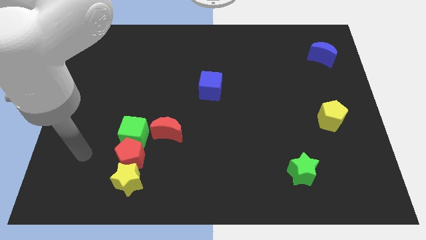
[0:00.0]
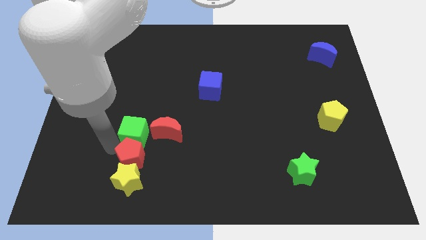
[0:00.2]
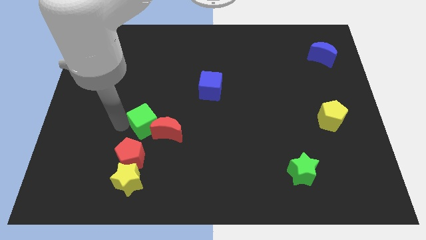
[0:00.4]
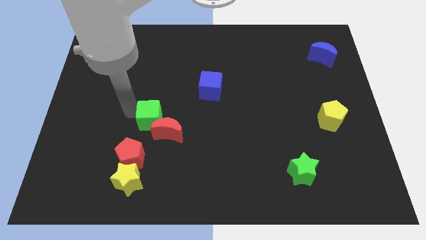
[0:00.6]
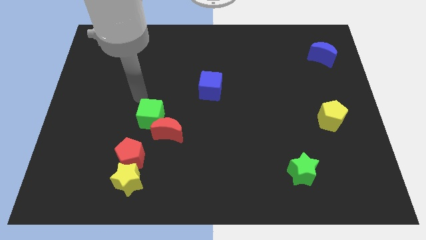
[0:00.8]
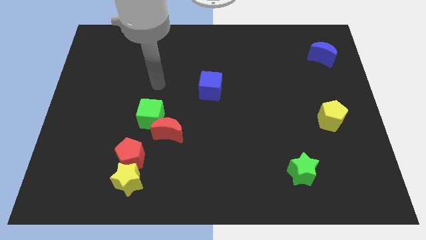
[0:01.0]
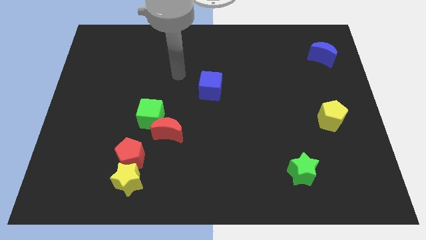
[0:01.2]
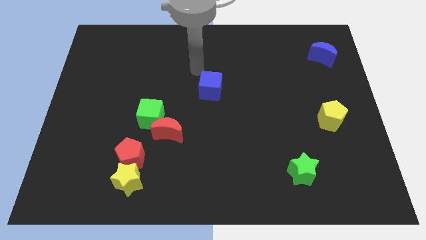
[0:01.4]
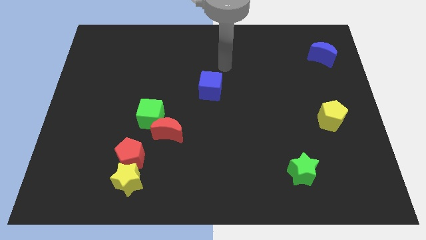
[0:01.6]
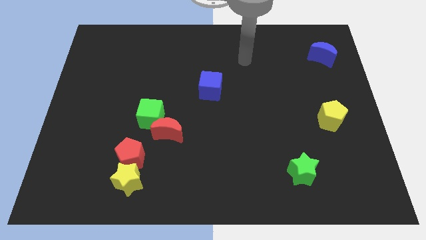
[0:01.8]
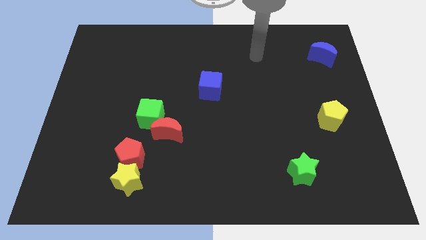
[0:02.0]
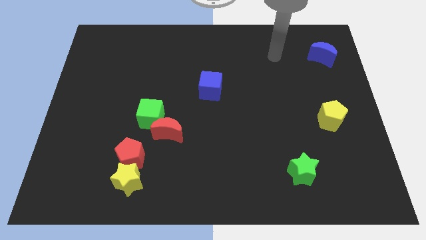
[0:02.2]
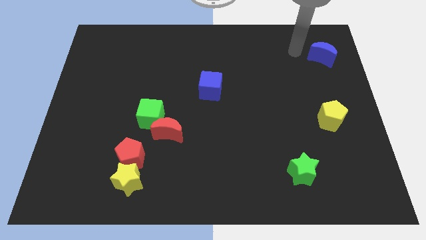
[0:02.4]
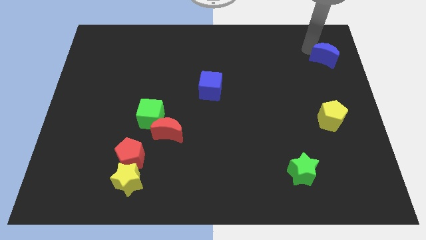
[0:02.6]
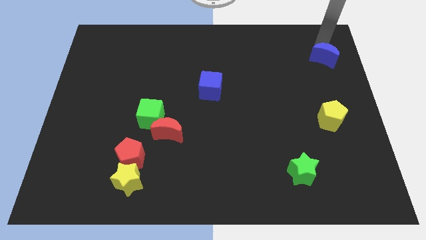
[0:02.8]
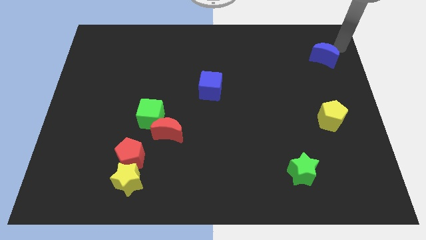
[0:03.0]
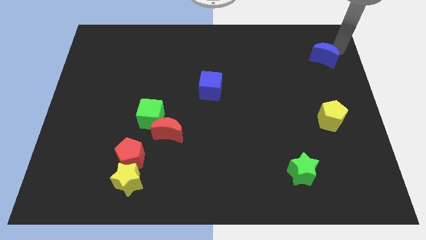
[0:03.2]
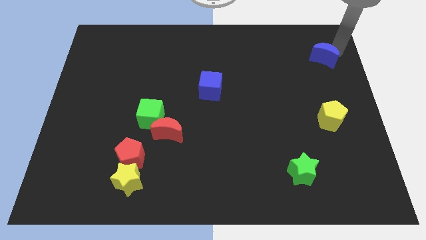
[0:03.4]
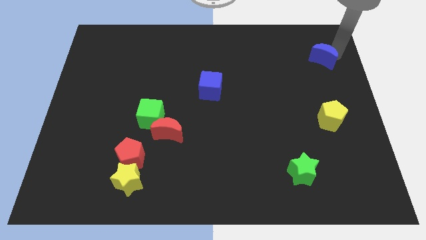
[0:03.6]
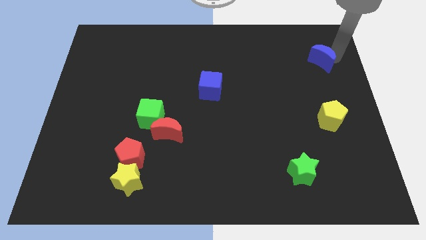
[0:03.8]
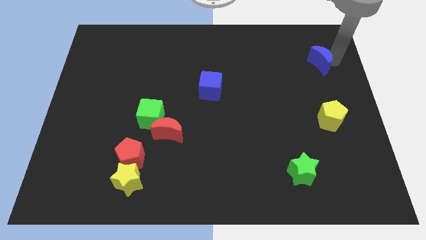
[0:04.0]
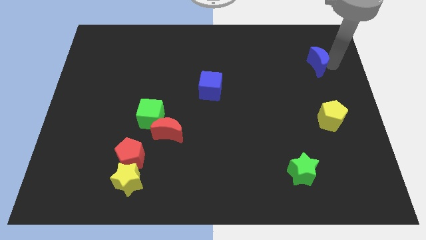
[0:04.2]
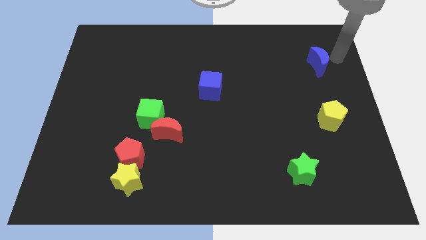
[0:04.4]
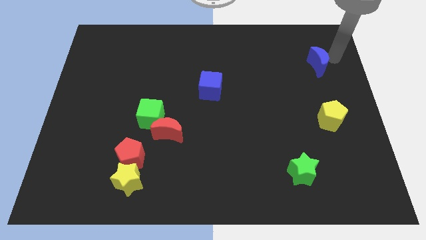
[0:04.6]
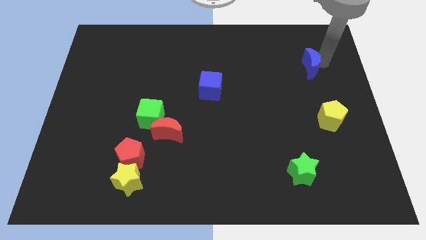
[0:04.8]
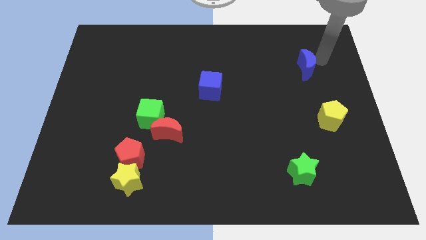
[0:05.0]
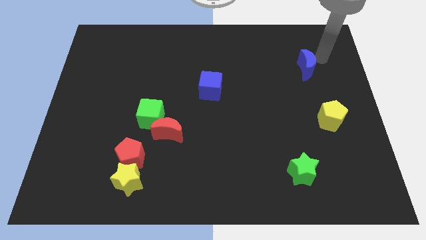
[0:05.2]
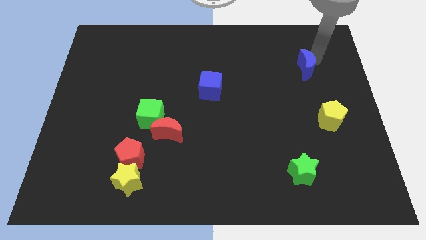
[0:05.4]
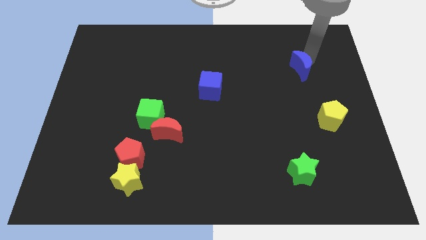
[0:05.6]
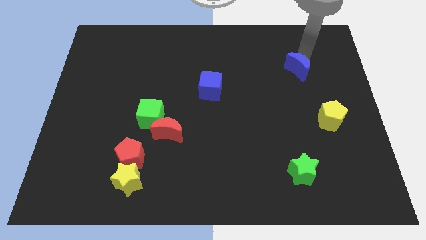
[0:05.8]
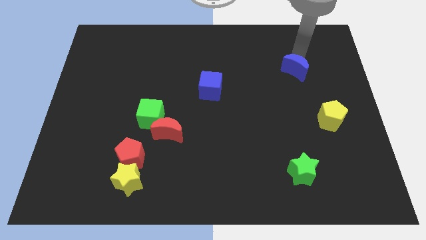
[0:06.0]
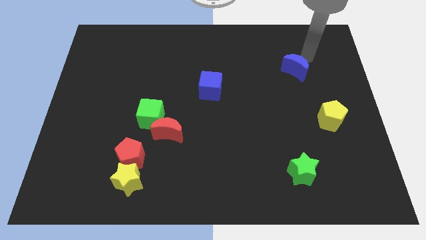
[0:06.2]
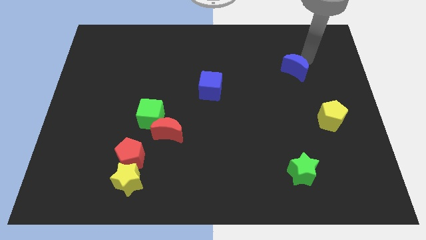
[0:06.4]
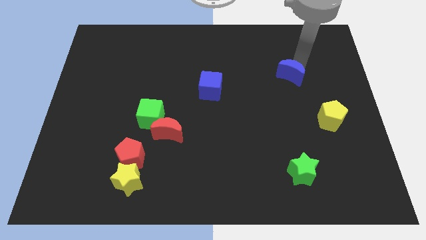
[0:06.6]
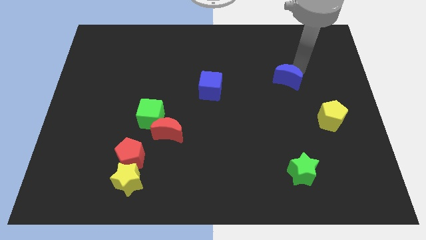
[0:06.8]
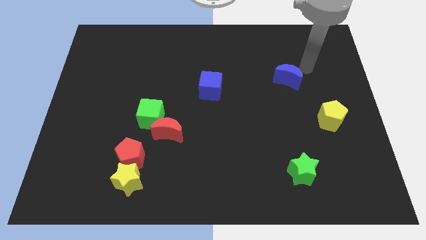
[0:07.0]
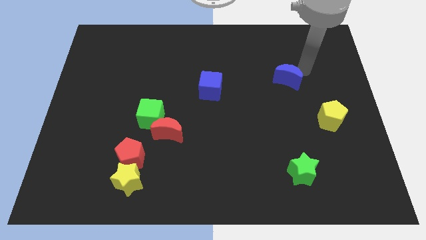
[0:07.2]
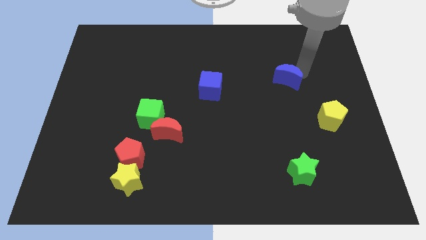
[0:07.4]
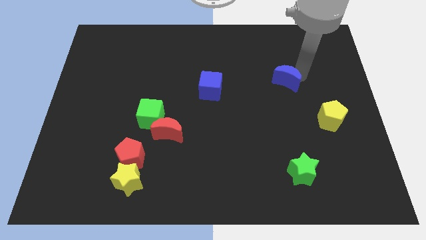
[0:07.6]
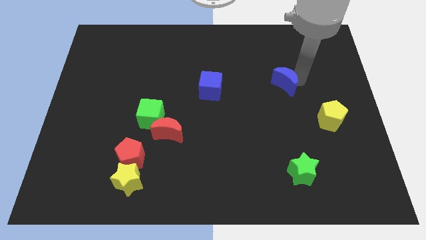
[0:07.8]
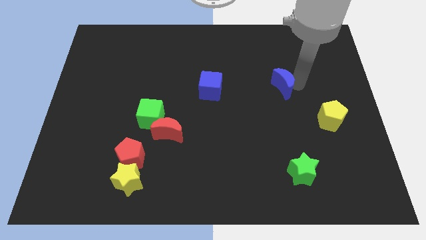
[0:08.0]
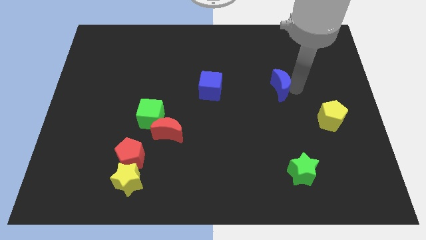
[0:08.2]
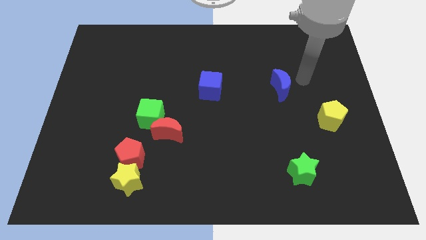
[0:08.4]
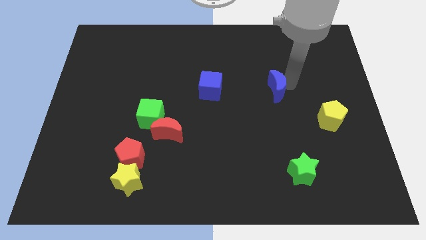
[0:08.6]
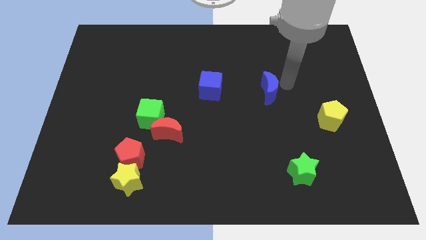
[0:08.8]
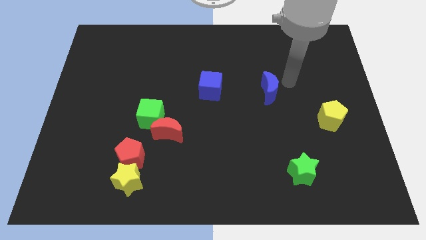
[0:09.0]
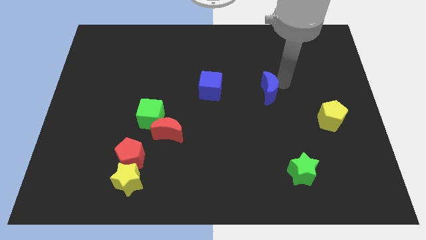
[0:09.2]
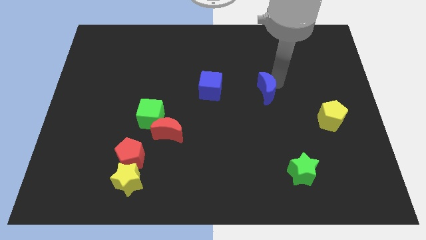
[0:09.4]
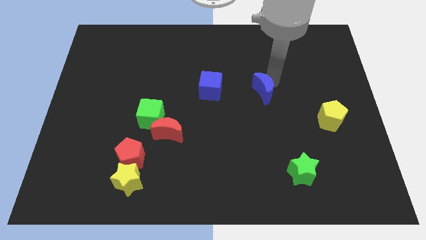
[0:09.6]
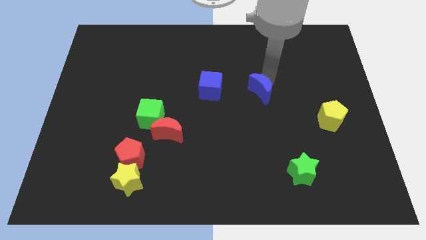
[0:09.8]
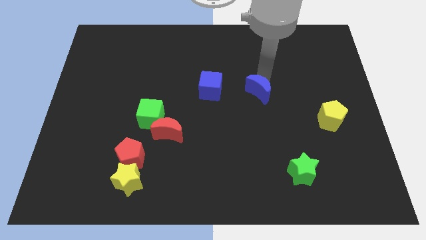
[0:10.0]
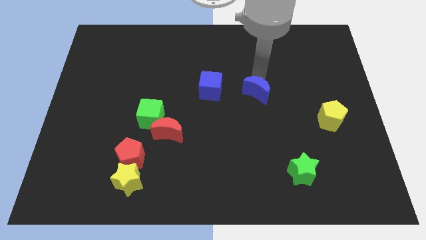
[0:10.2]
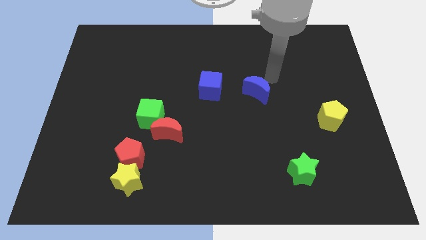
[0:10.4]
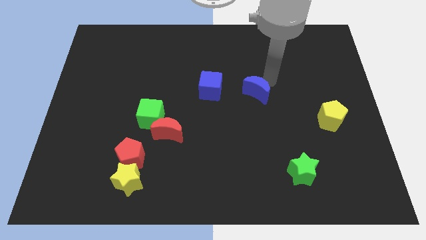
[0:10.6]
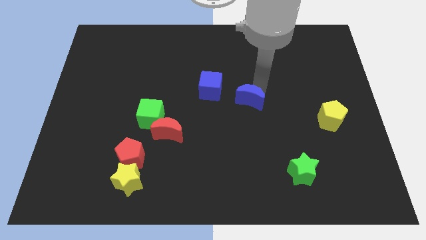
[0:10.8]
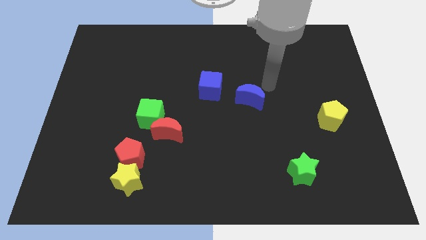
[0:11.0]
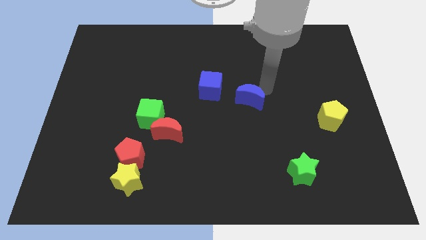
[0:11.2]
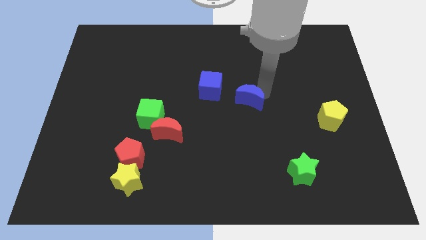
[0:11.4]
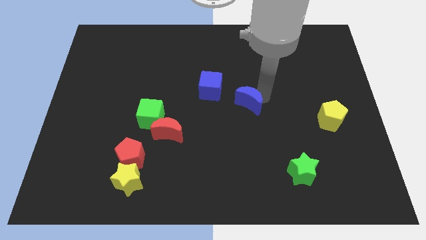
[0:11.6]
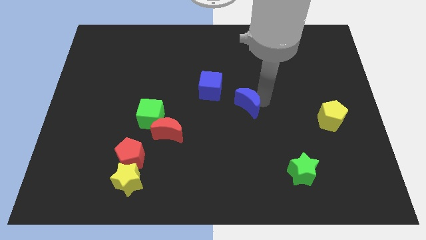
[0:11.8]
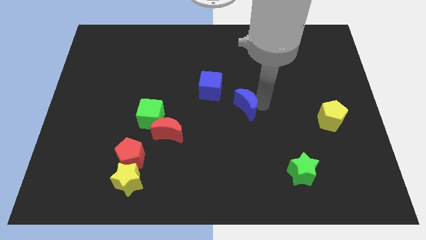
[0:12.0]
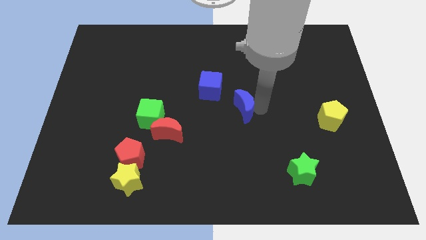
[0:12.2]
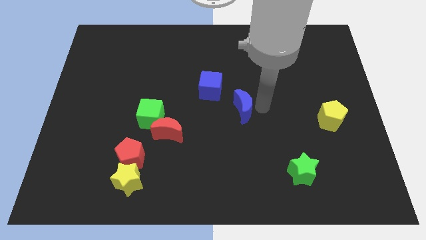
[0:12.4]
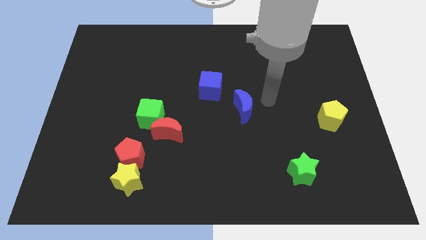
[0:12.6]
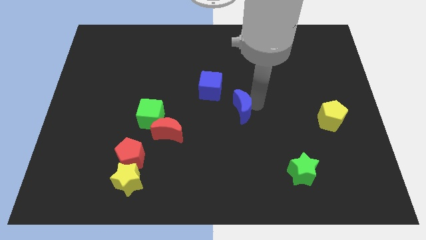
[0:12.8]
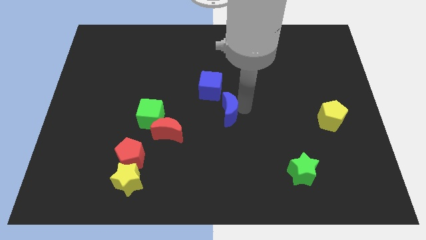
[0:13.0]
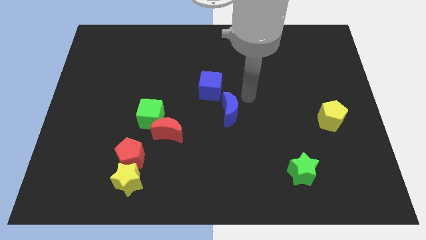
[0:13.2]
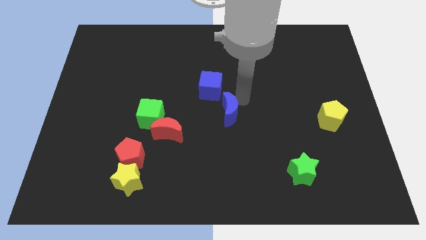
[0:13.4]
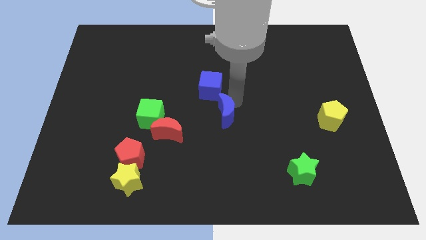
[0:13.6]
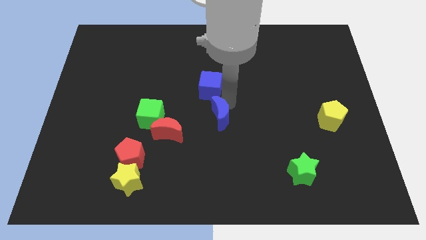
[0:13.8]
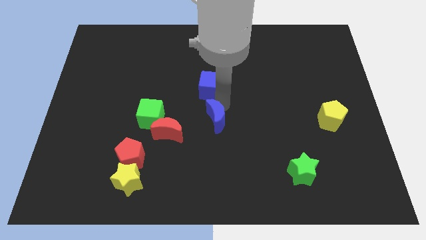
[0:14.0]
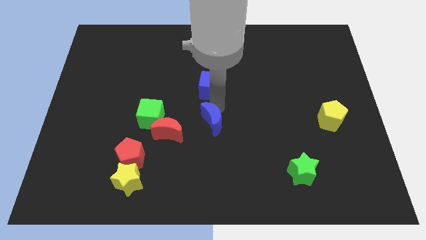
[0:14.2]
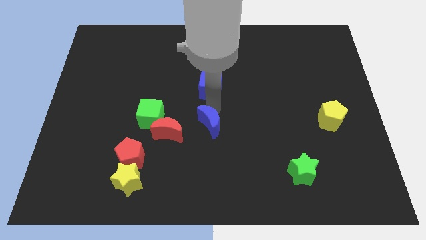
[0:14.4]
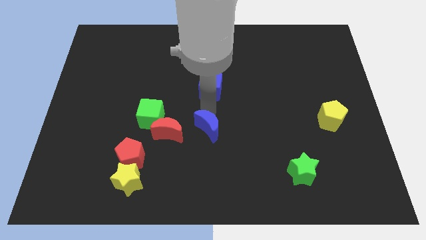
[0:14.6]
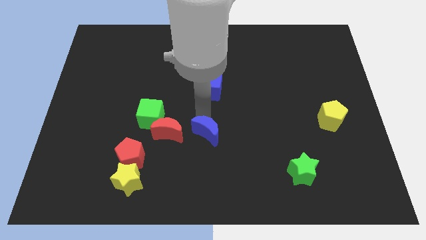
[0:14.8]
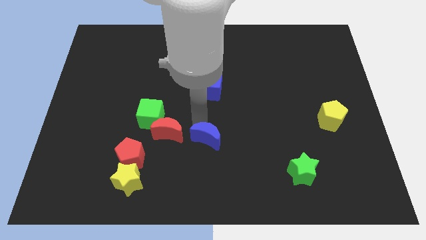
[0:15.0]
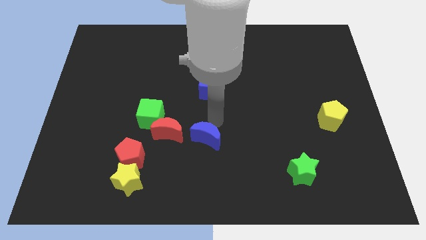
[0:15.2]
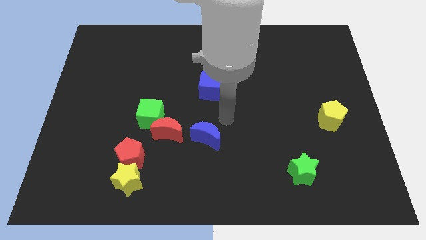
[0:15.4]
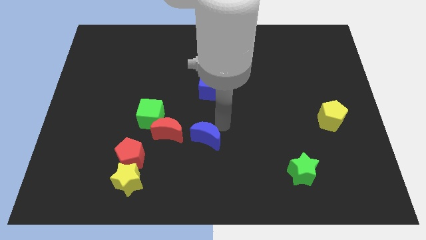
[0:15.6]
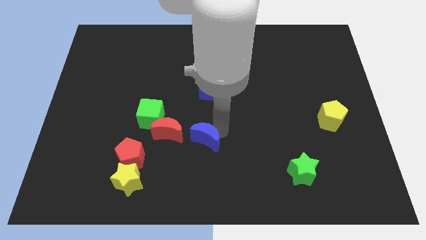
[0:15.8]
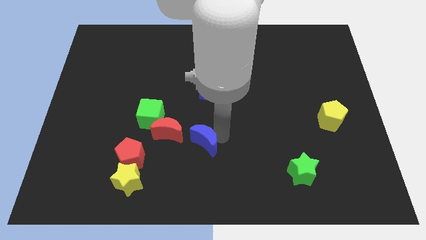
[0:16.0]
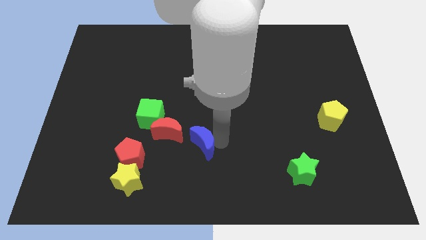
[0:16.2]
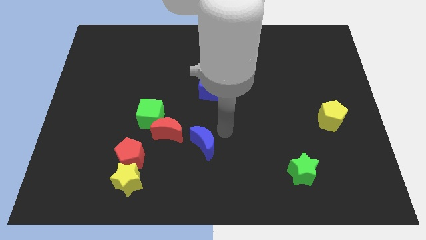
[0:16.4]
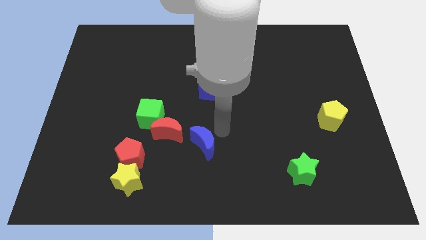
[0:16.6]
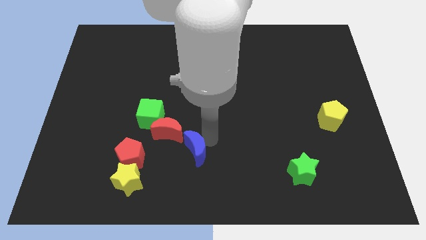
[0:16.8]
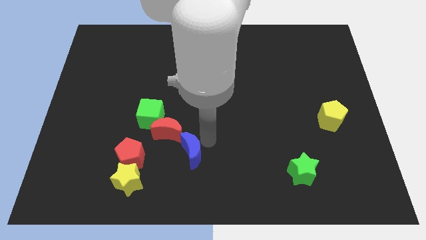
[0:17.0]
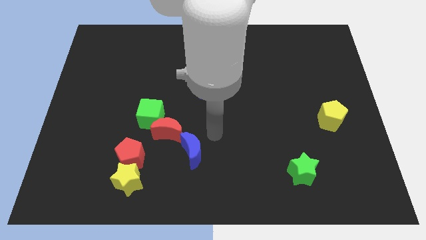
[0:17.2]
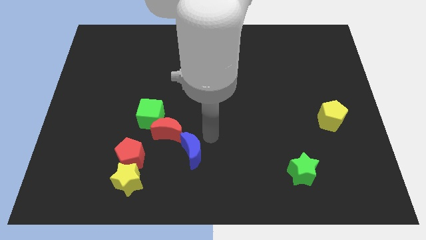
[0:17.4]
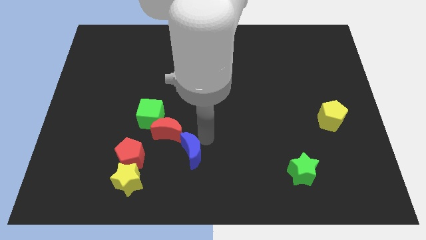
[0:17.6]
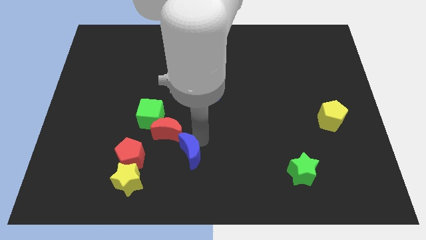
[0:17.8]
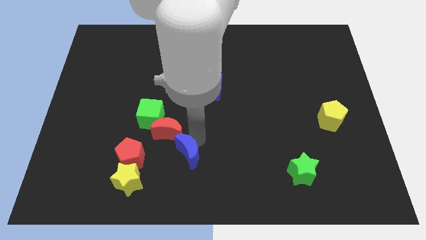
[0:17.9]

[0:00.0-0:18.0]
slide the blue moon to the bottom of the red moon
